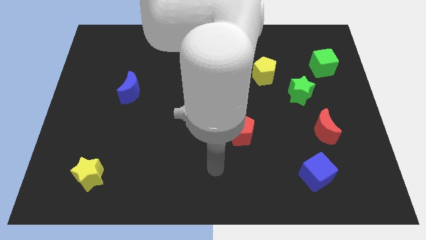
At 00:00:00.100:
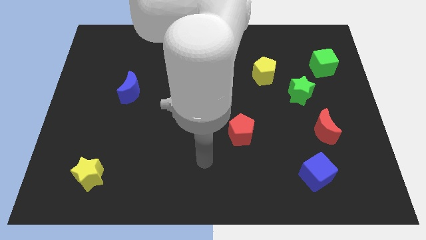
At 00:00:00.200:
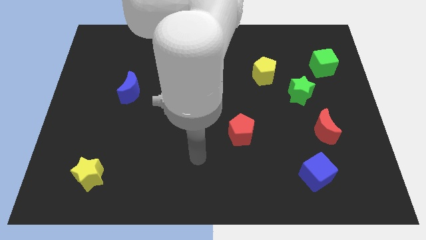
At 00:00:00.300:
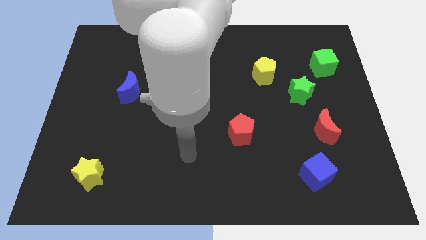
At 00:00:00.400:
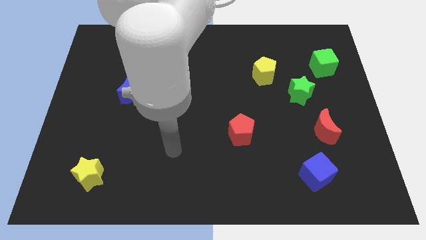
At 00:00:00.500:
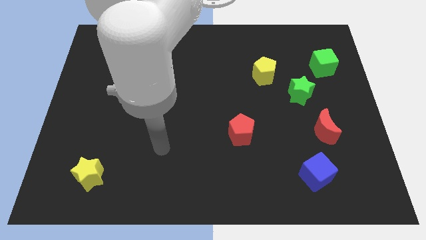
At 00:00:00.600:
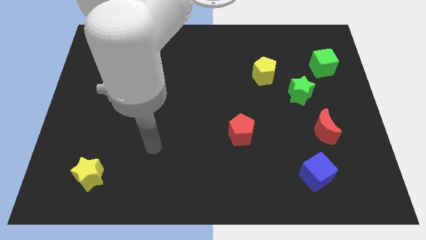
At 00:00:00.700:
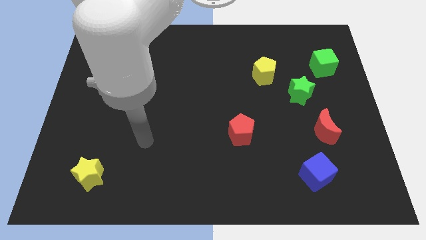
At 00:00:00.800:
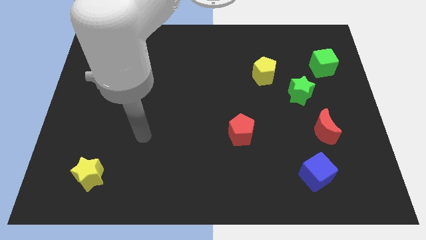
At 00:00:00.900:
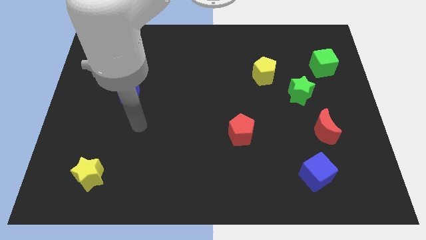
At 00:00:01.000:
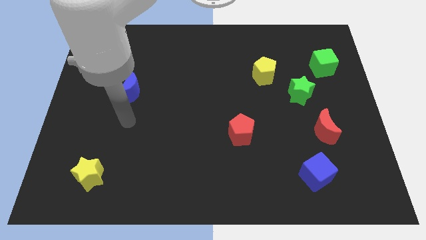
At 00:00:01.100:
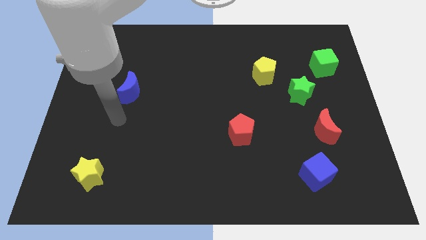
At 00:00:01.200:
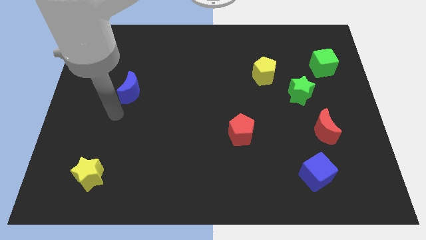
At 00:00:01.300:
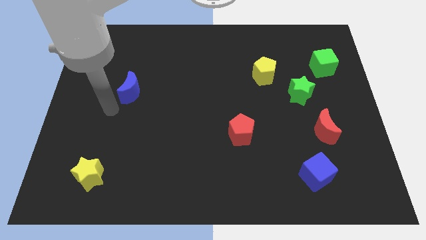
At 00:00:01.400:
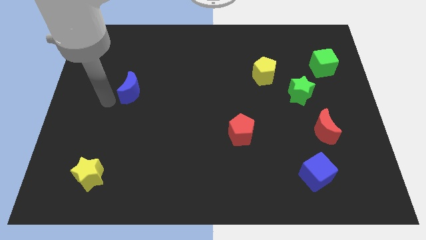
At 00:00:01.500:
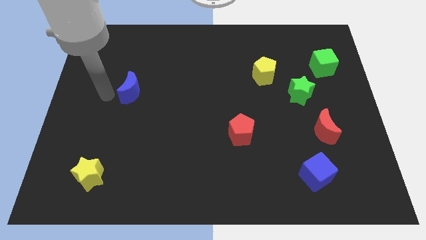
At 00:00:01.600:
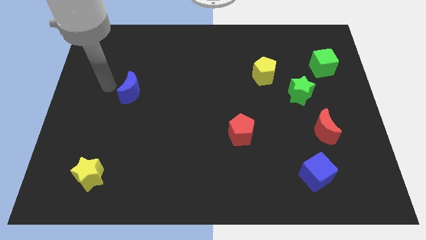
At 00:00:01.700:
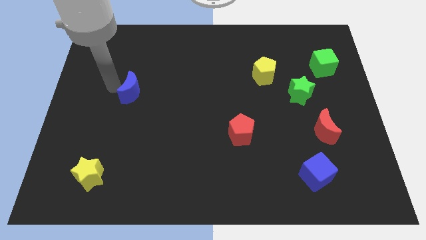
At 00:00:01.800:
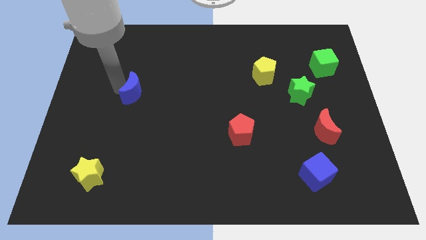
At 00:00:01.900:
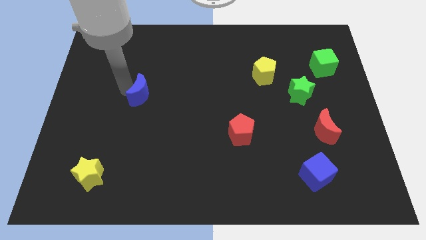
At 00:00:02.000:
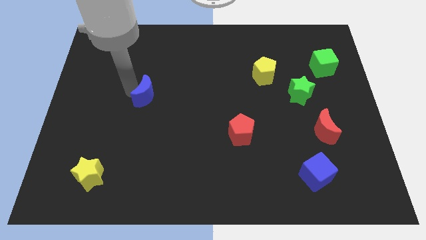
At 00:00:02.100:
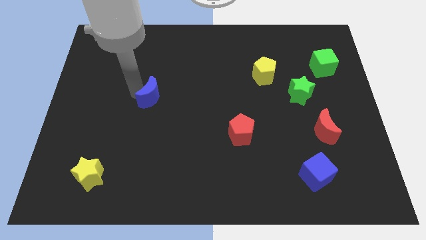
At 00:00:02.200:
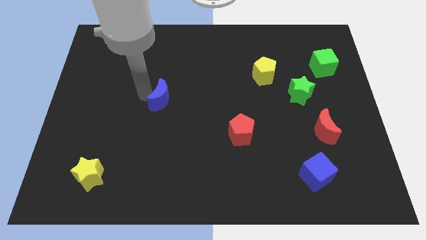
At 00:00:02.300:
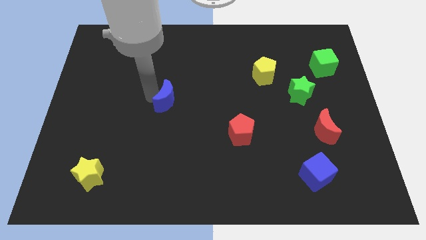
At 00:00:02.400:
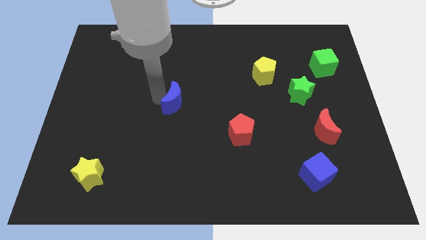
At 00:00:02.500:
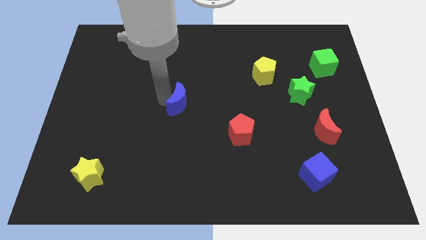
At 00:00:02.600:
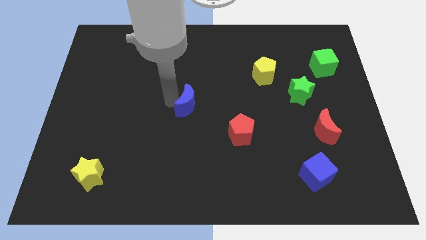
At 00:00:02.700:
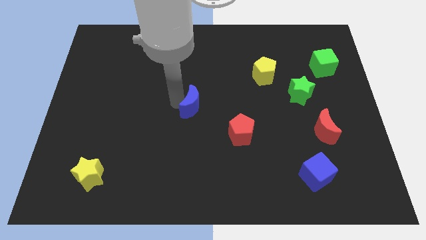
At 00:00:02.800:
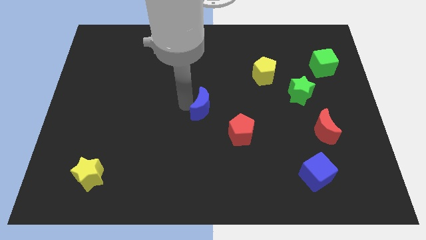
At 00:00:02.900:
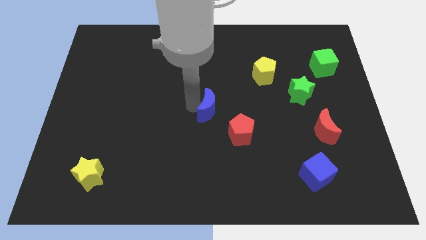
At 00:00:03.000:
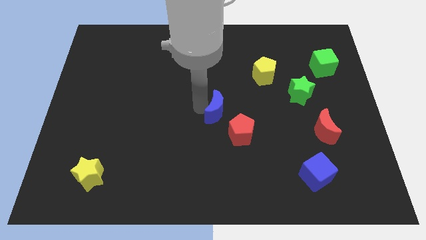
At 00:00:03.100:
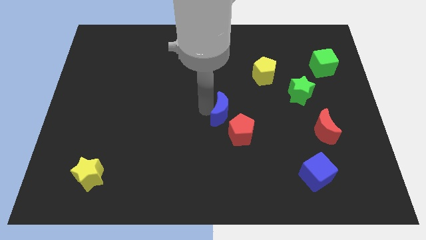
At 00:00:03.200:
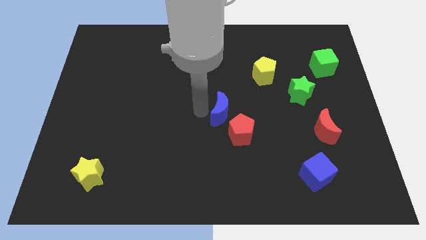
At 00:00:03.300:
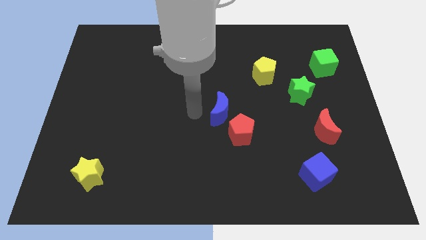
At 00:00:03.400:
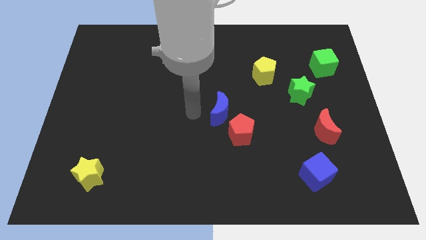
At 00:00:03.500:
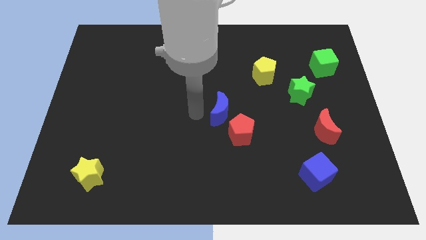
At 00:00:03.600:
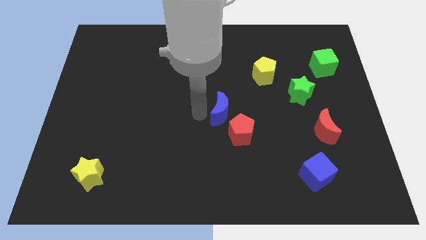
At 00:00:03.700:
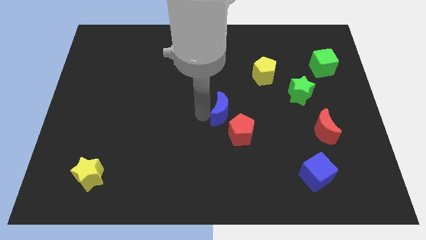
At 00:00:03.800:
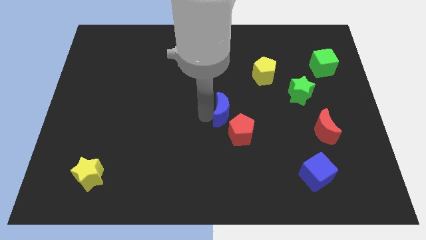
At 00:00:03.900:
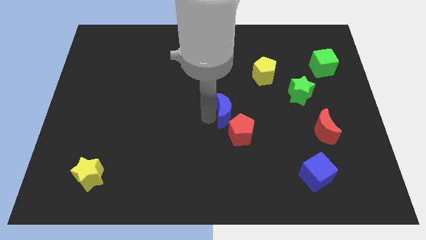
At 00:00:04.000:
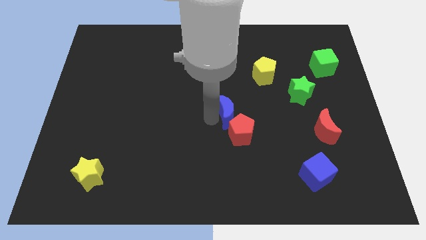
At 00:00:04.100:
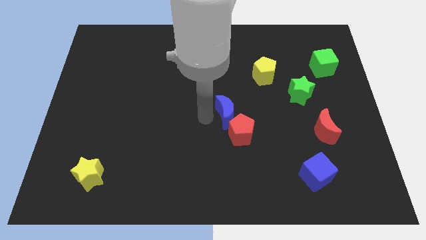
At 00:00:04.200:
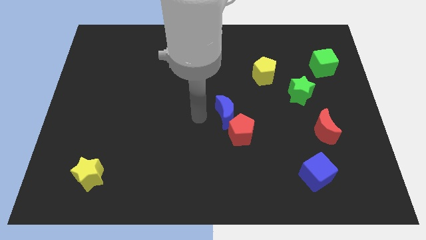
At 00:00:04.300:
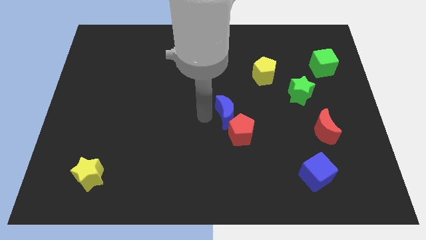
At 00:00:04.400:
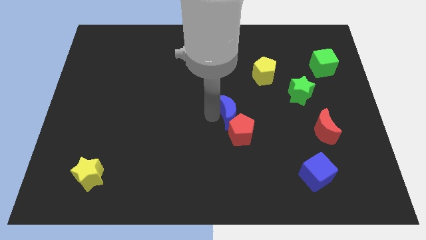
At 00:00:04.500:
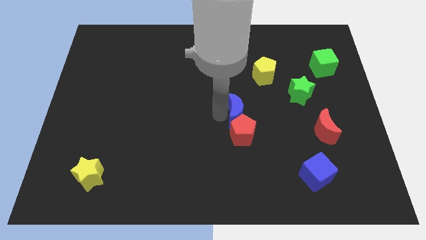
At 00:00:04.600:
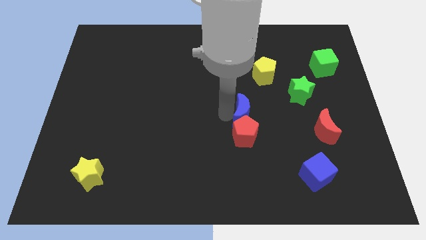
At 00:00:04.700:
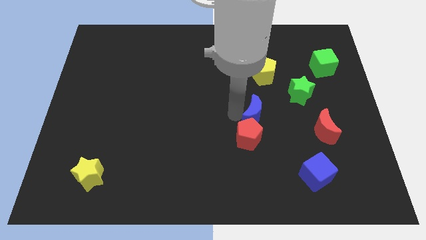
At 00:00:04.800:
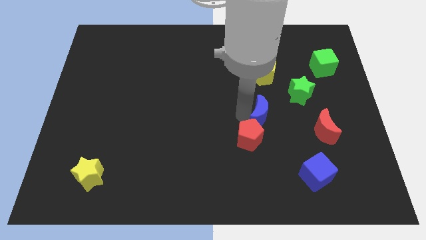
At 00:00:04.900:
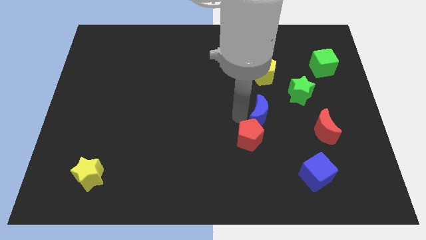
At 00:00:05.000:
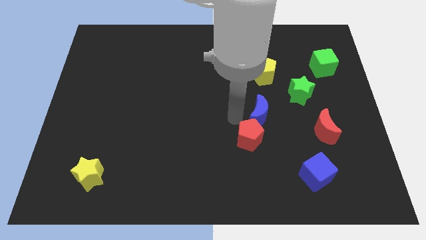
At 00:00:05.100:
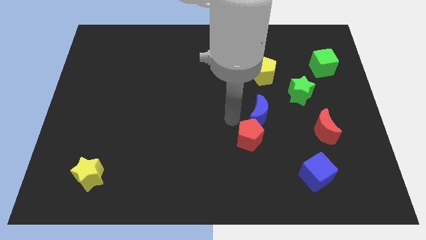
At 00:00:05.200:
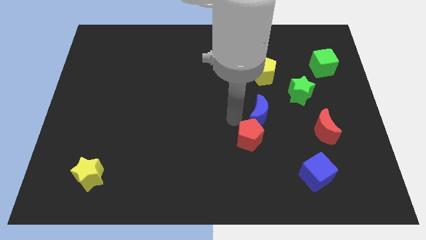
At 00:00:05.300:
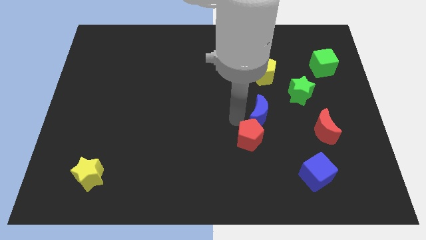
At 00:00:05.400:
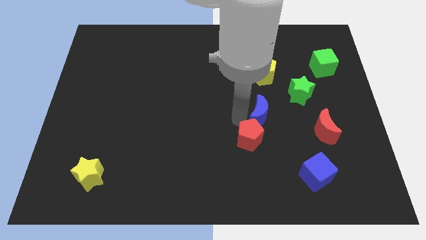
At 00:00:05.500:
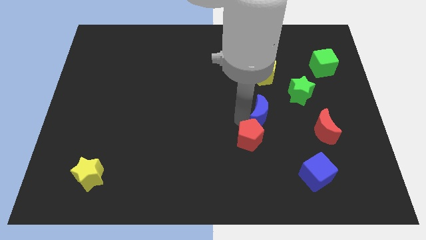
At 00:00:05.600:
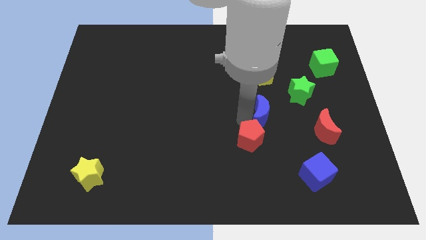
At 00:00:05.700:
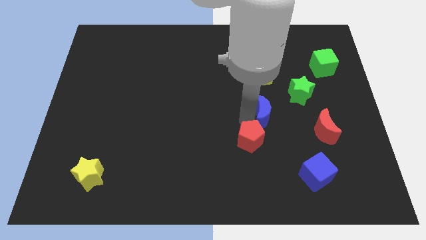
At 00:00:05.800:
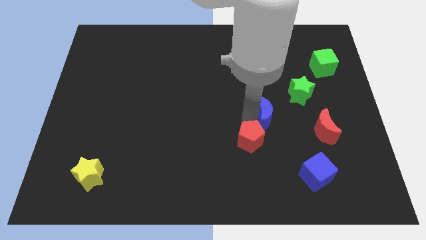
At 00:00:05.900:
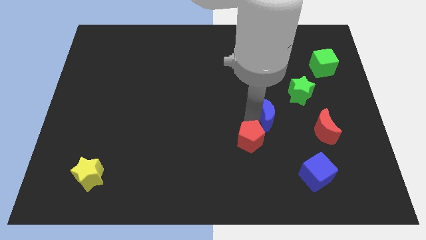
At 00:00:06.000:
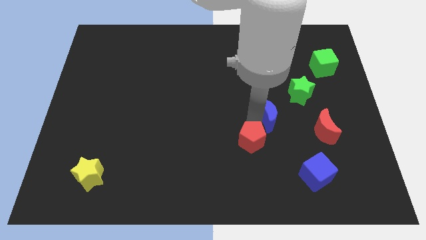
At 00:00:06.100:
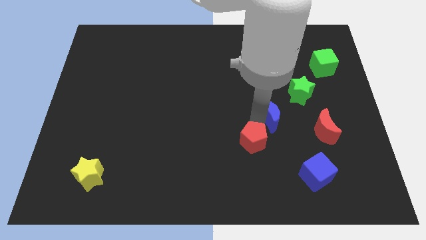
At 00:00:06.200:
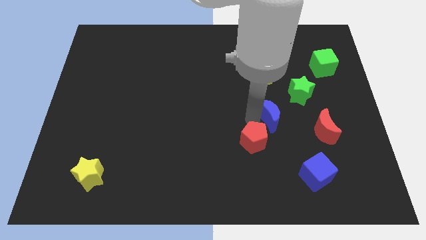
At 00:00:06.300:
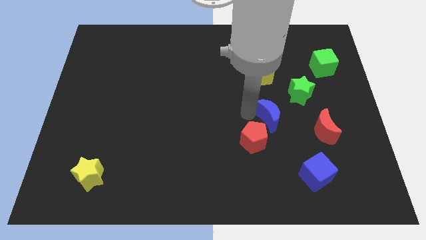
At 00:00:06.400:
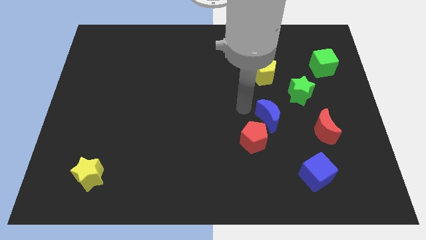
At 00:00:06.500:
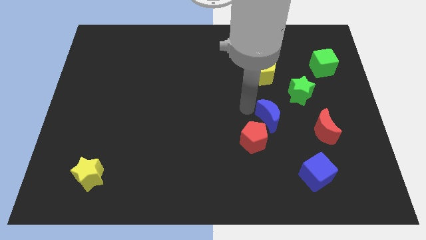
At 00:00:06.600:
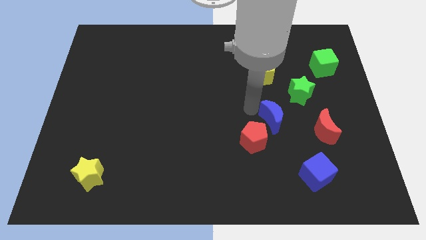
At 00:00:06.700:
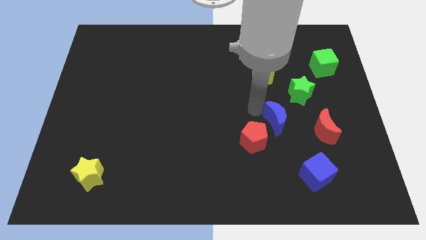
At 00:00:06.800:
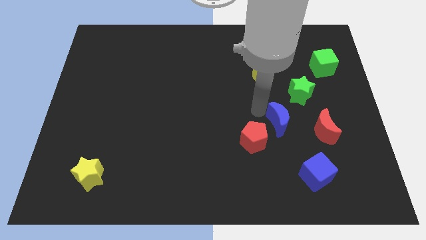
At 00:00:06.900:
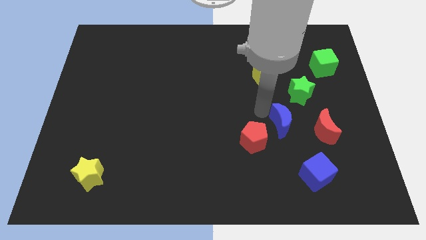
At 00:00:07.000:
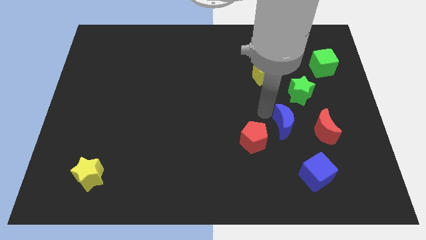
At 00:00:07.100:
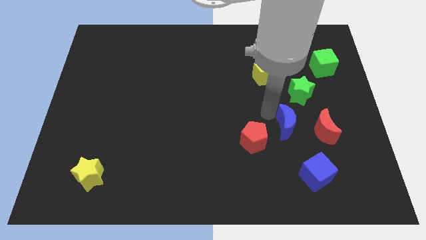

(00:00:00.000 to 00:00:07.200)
move the blue moon above the blue cube
